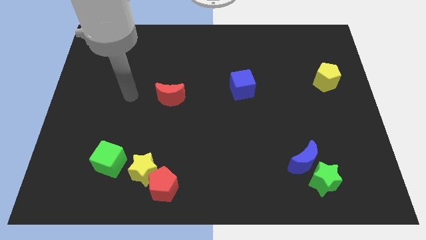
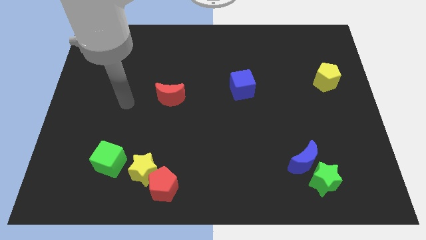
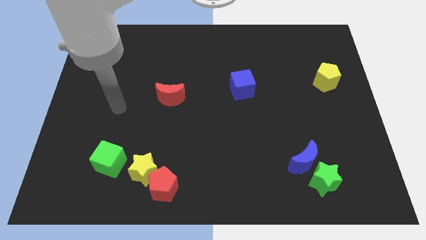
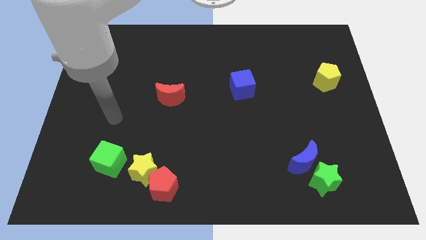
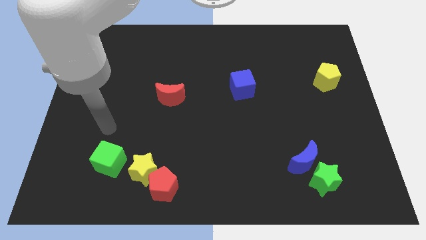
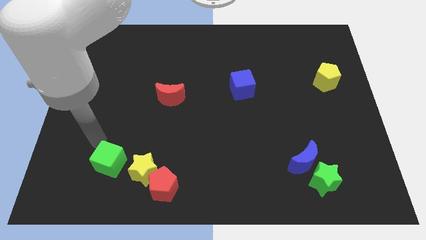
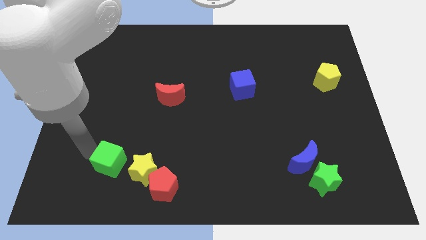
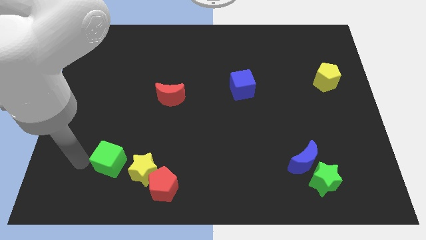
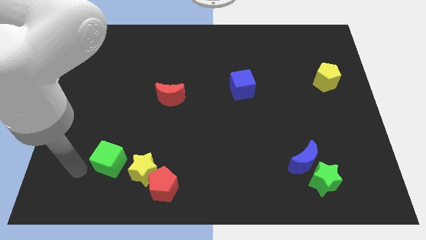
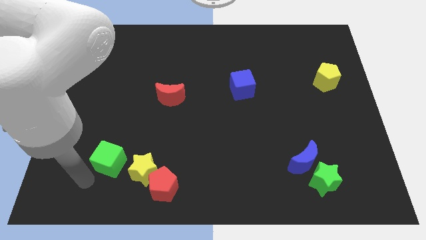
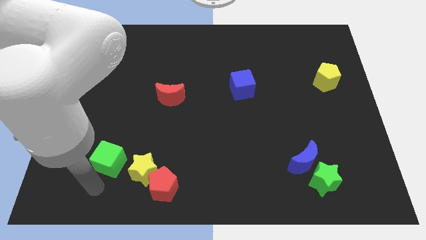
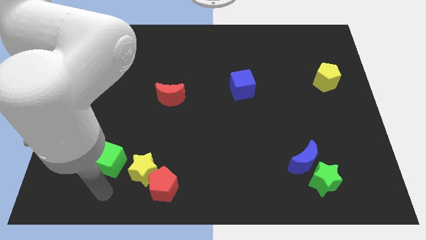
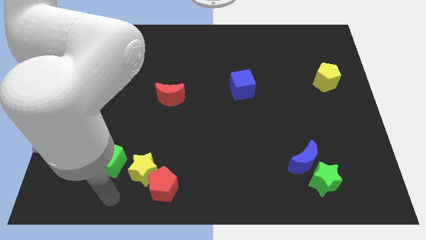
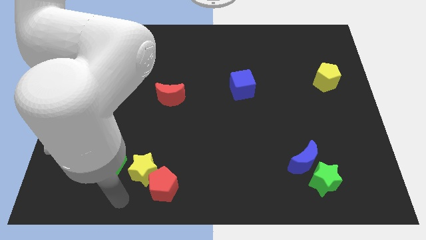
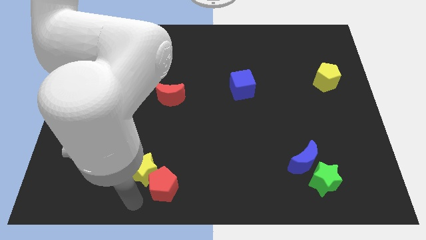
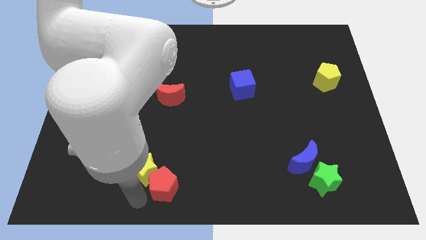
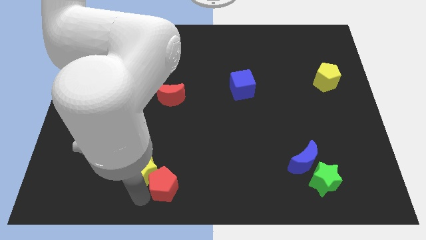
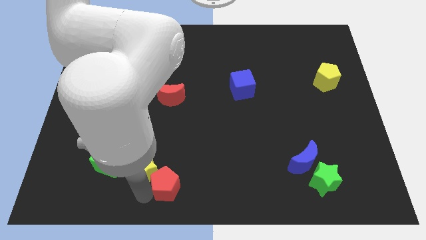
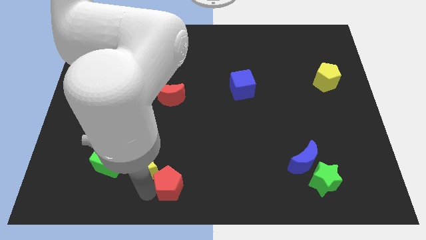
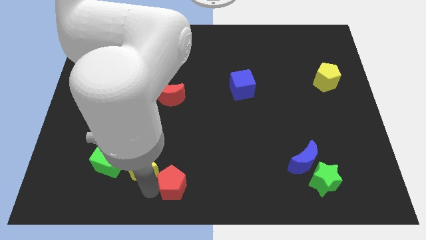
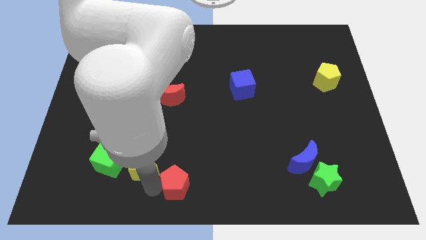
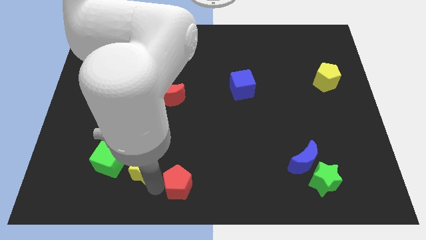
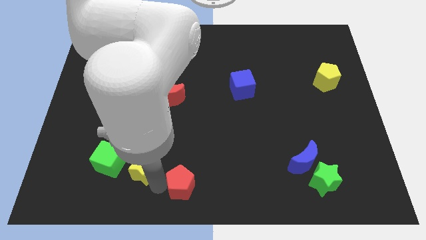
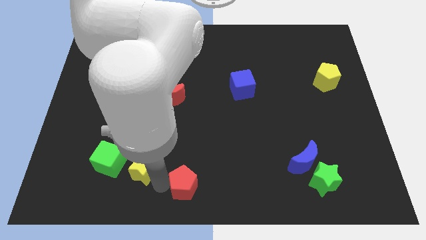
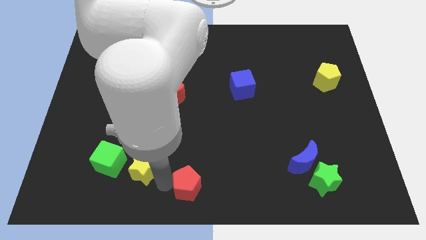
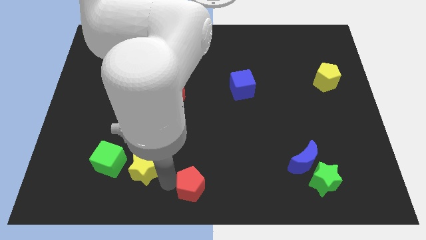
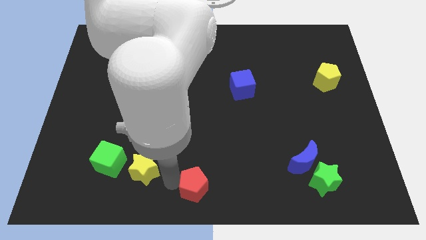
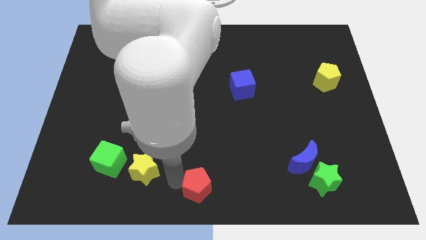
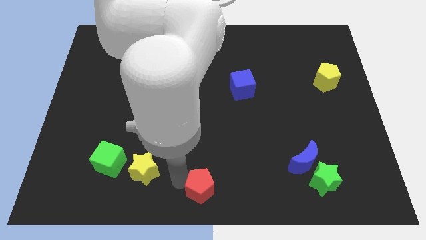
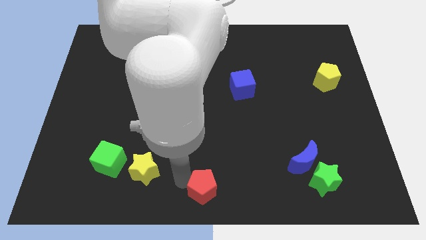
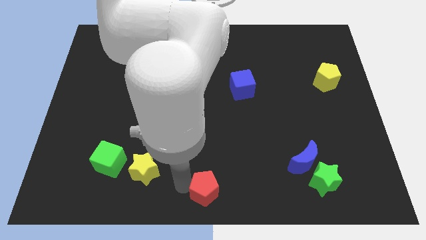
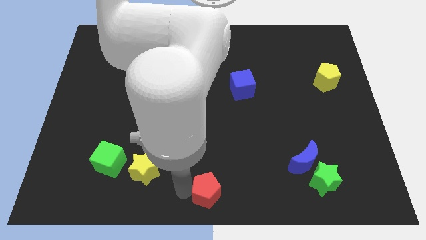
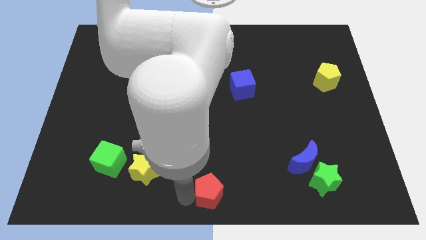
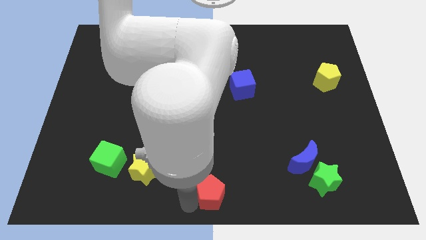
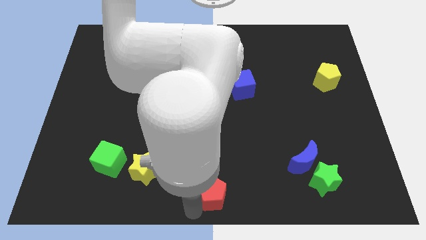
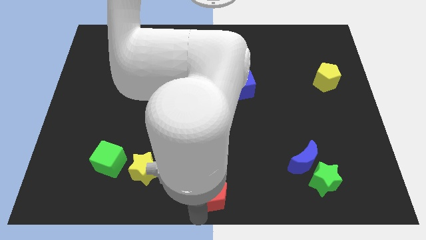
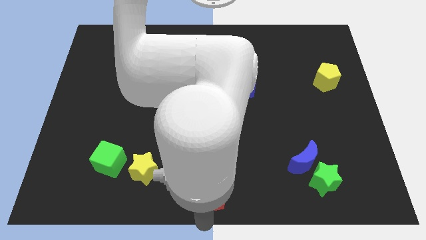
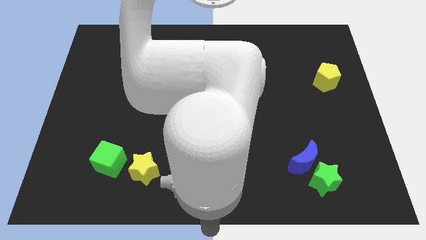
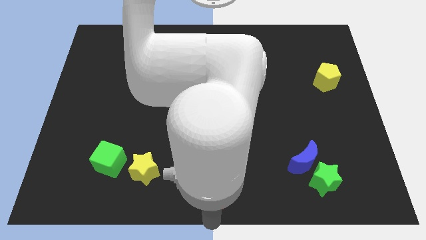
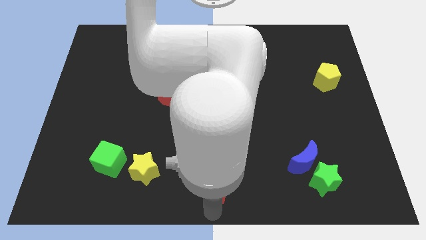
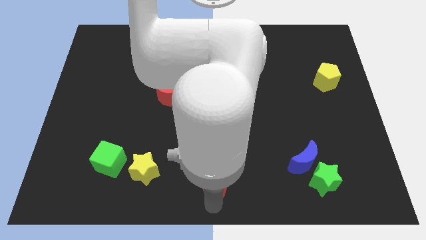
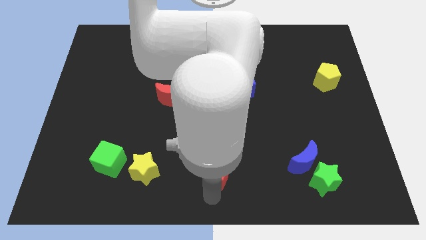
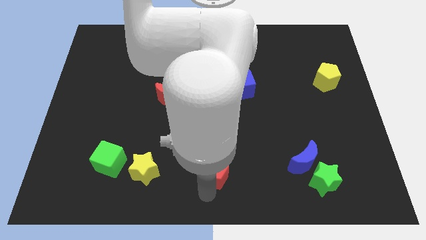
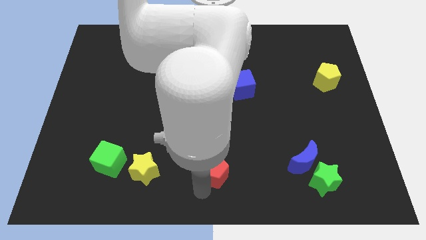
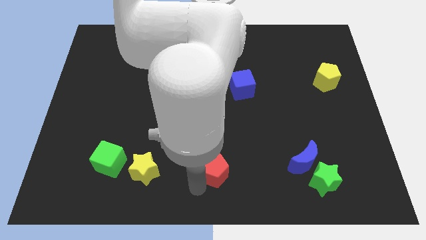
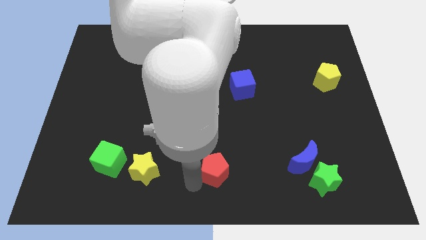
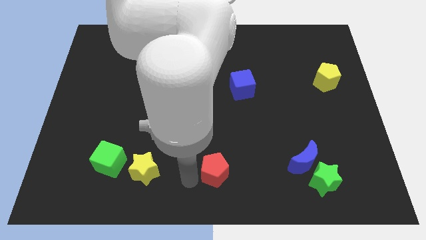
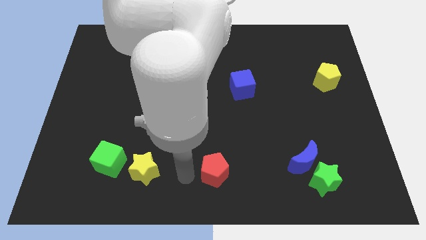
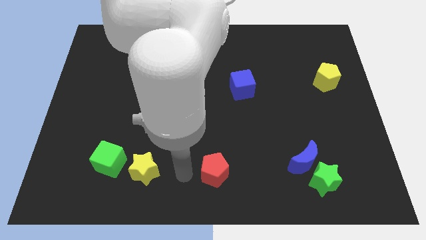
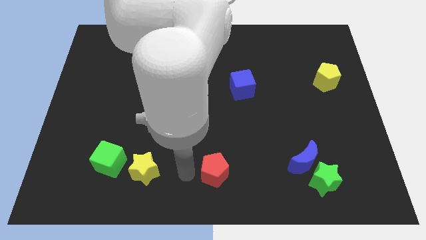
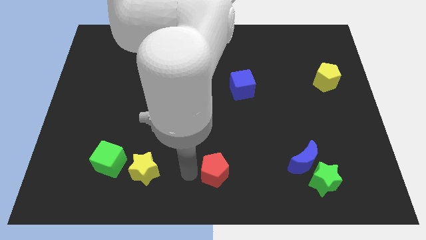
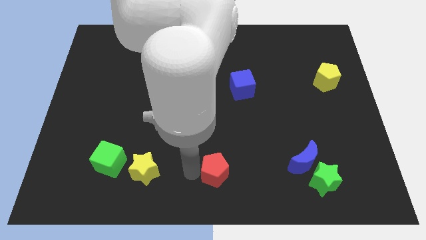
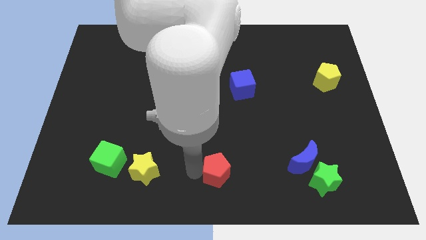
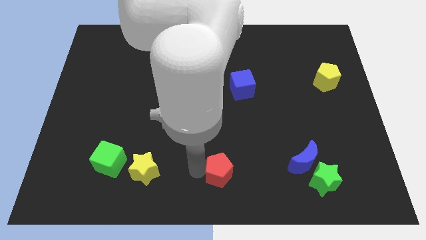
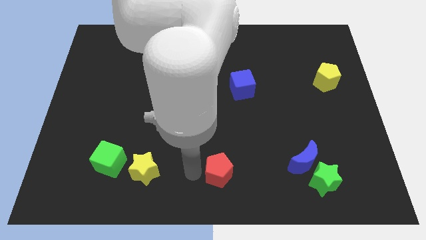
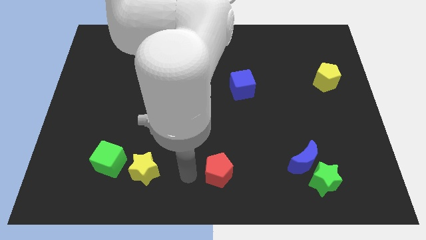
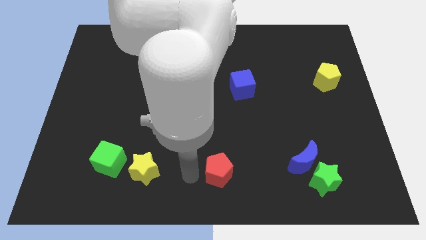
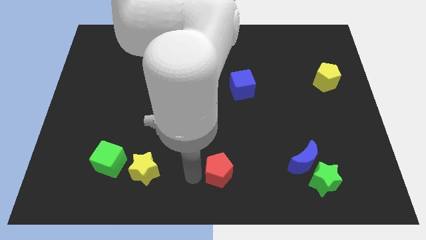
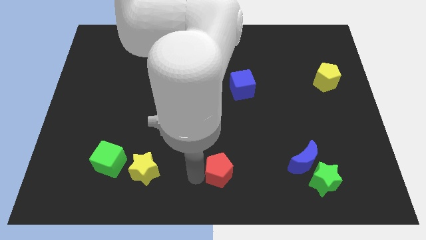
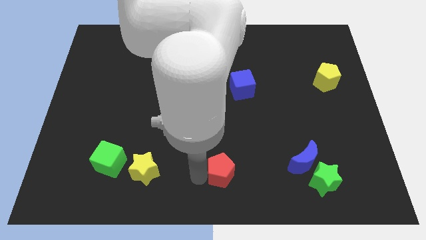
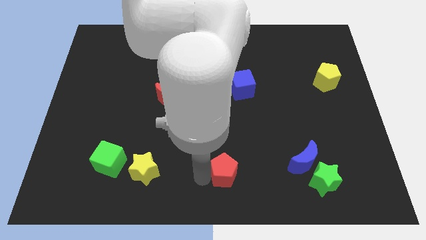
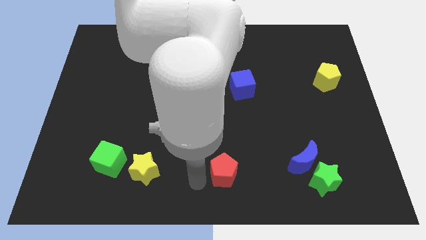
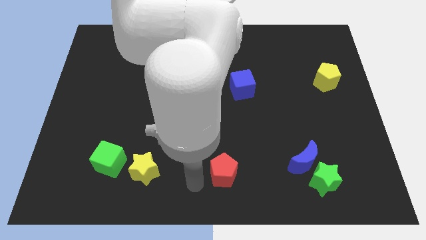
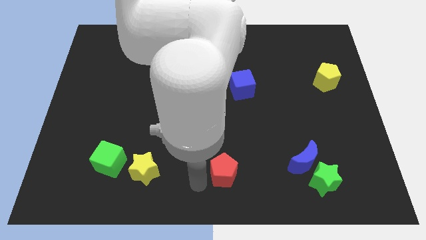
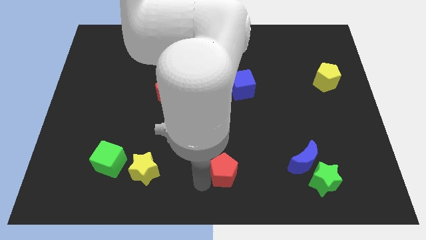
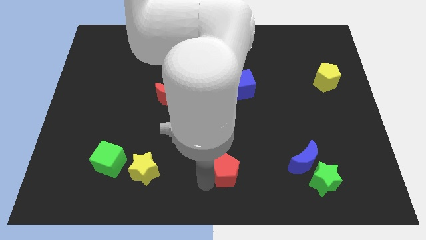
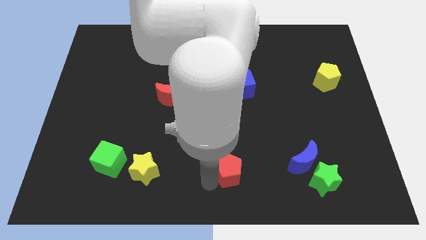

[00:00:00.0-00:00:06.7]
push the red pentagon to the left of the blue moon
